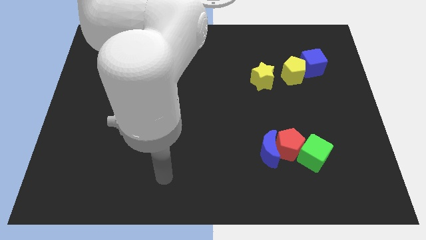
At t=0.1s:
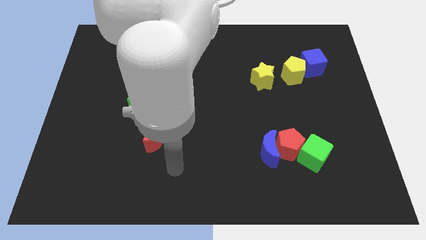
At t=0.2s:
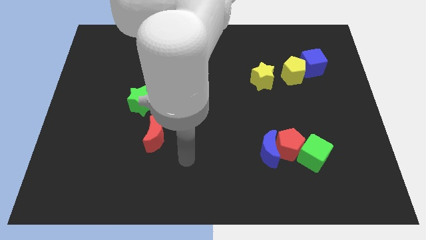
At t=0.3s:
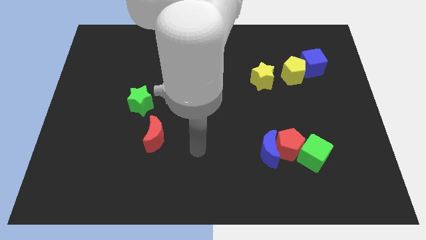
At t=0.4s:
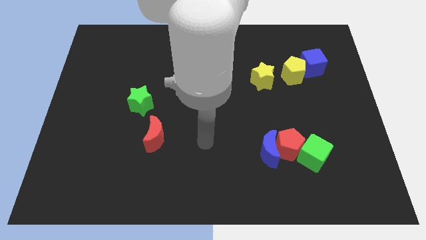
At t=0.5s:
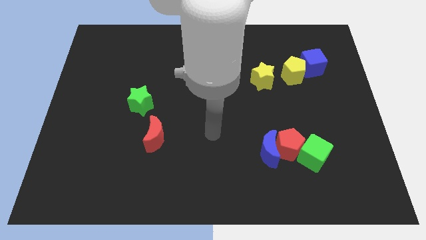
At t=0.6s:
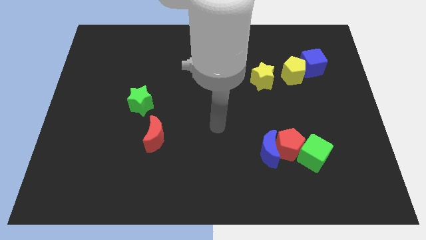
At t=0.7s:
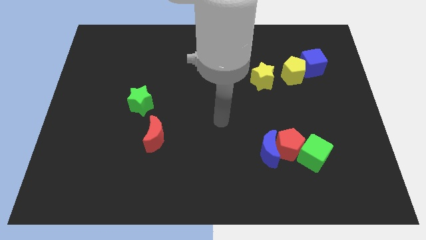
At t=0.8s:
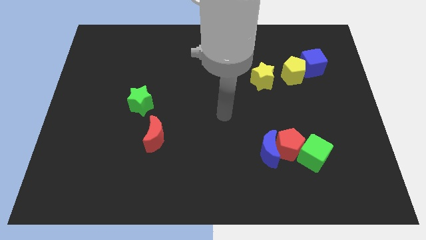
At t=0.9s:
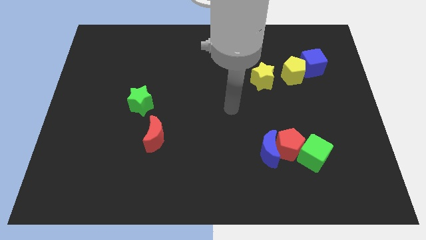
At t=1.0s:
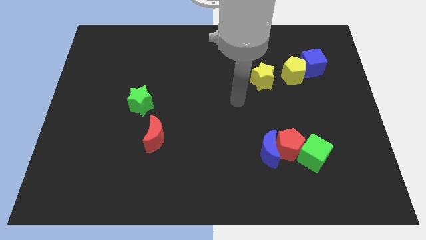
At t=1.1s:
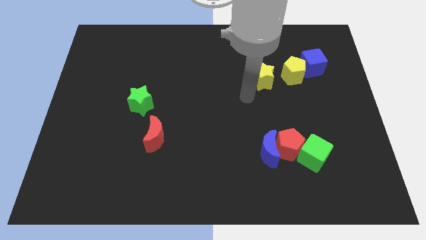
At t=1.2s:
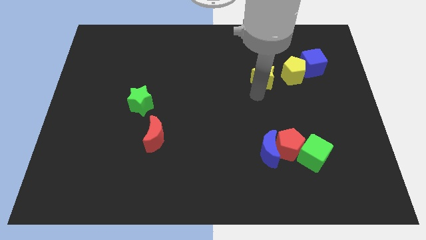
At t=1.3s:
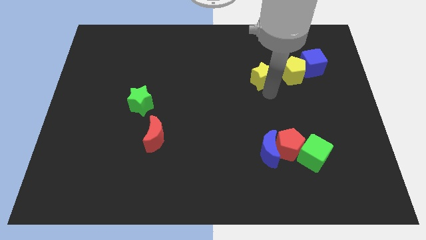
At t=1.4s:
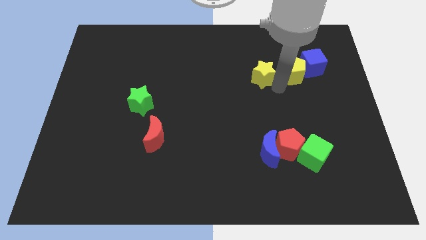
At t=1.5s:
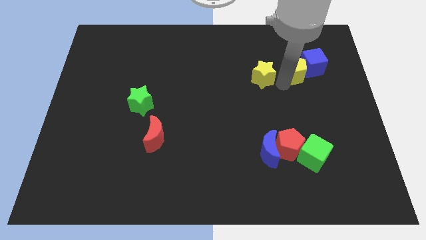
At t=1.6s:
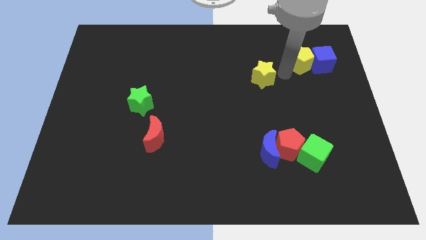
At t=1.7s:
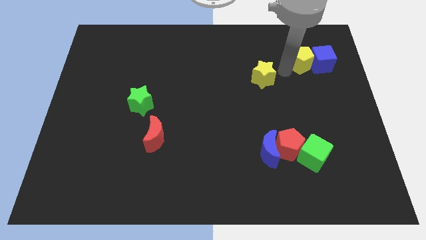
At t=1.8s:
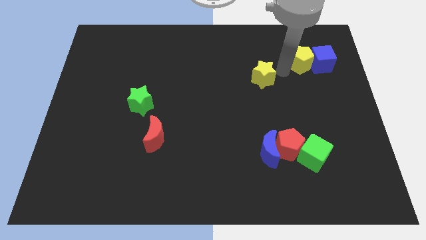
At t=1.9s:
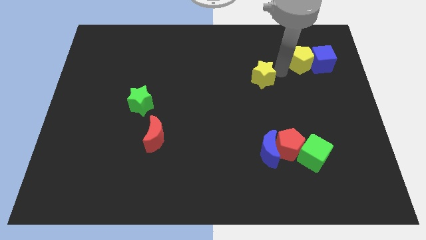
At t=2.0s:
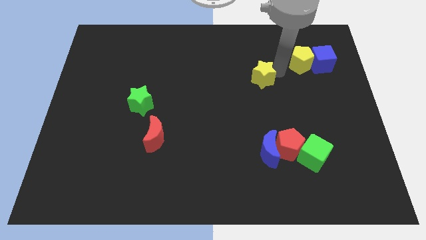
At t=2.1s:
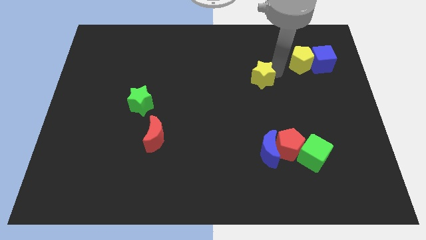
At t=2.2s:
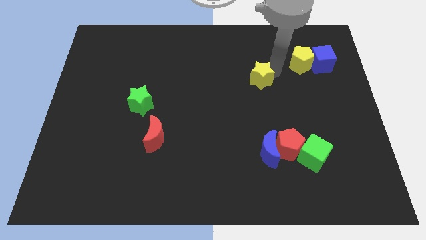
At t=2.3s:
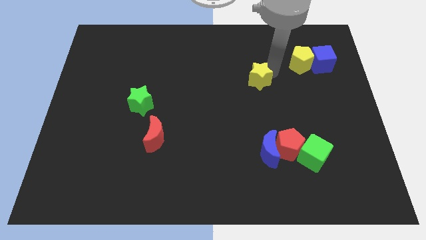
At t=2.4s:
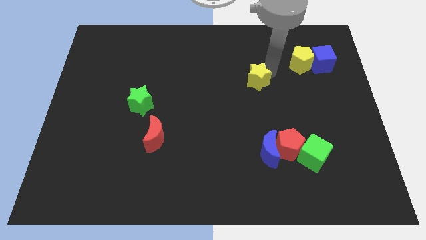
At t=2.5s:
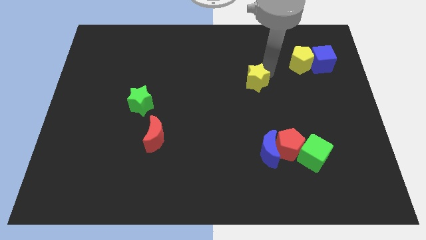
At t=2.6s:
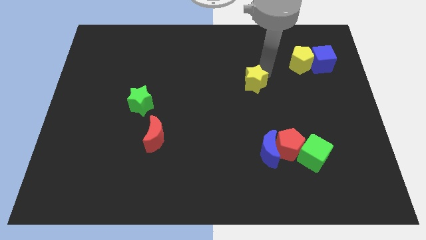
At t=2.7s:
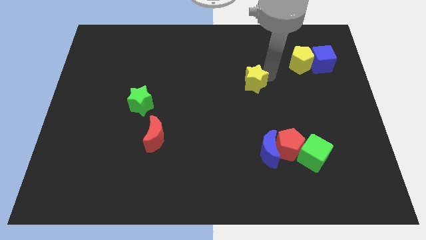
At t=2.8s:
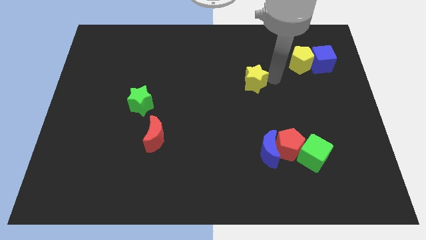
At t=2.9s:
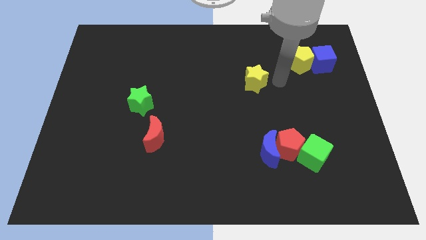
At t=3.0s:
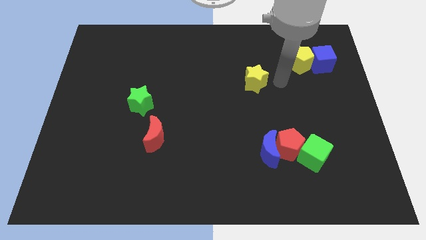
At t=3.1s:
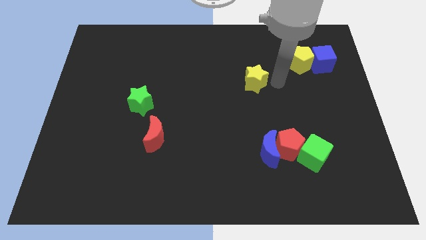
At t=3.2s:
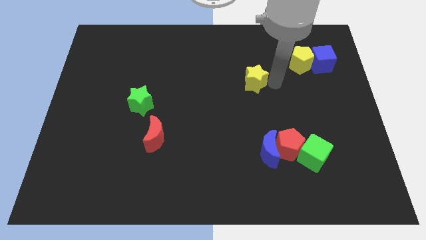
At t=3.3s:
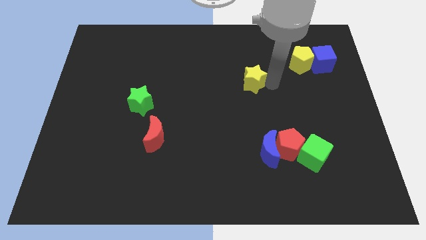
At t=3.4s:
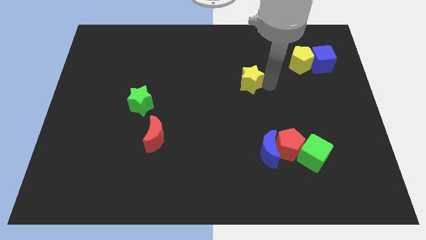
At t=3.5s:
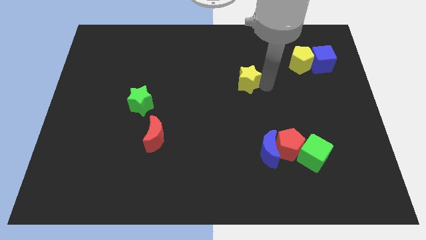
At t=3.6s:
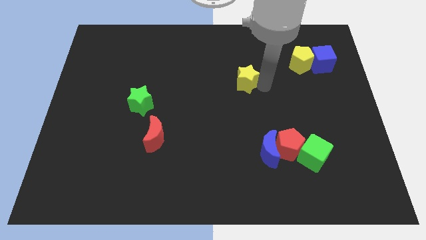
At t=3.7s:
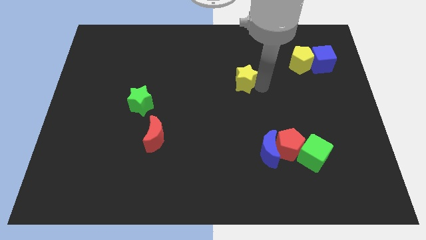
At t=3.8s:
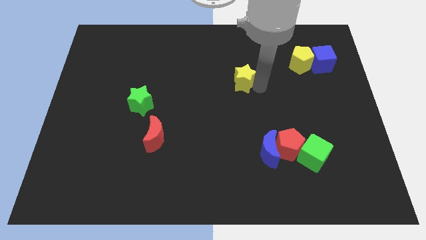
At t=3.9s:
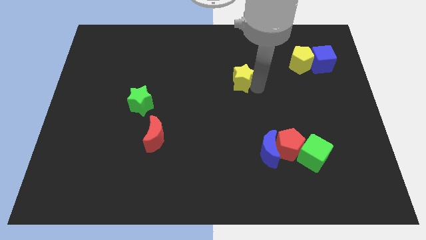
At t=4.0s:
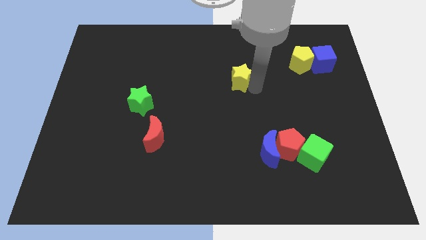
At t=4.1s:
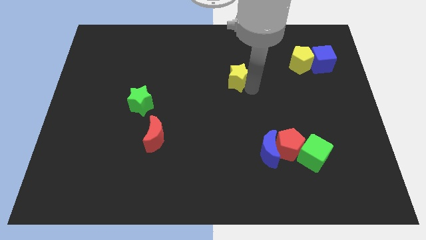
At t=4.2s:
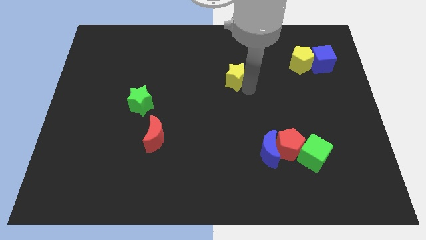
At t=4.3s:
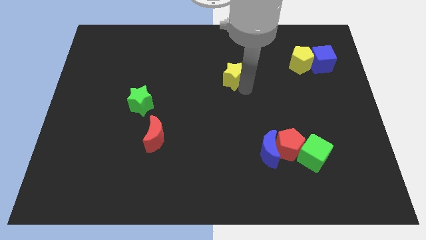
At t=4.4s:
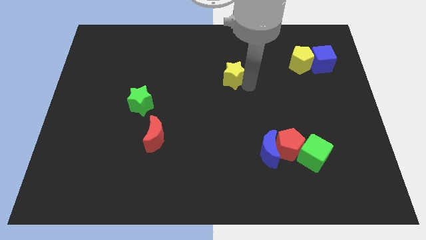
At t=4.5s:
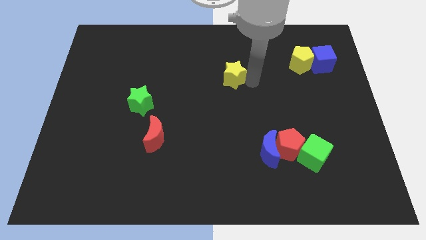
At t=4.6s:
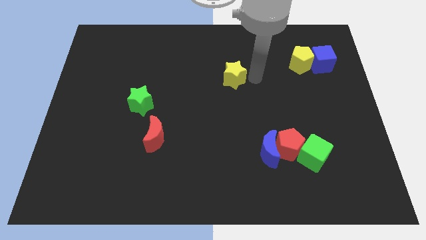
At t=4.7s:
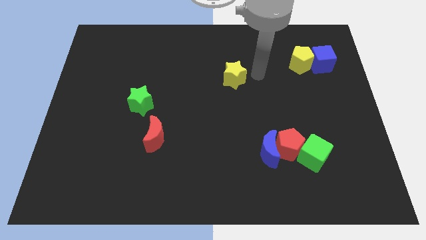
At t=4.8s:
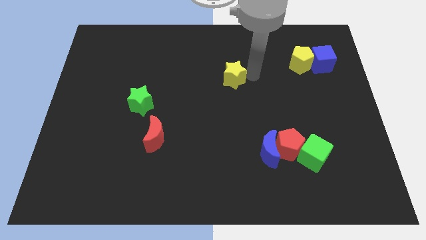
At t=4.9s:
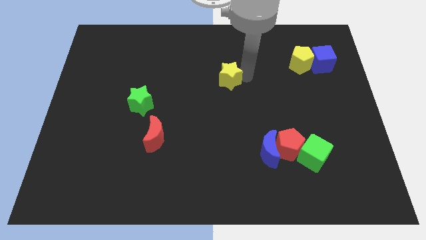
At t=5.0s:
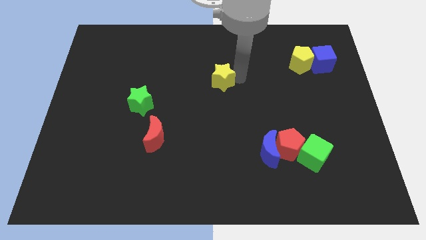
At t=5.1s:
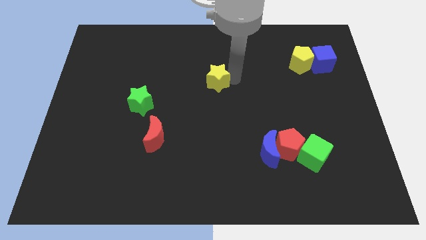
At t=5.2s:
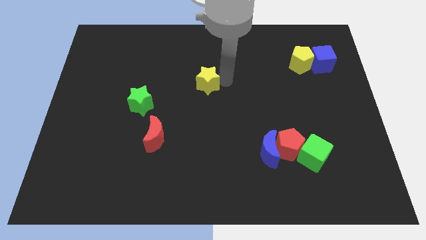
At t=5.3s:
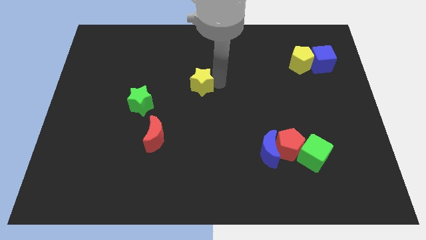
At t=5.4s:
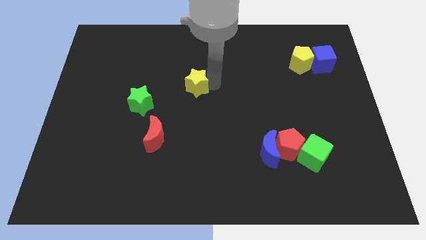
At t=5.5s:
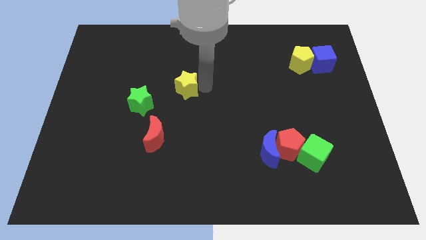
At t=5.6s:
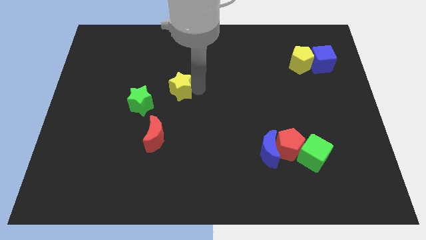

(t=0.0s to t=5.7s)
slide the yellow star to the left

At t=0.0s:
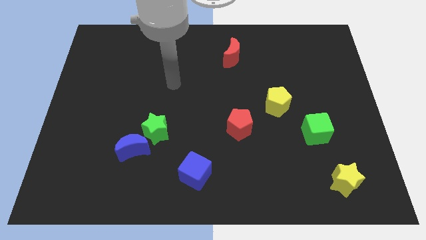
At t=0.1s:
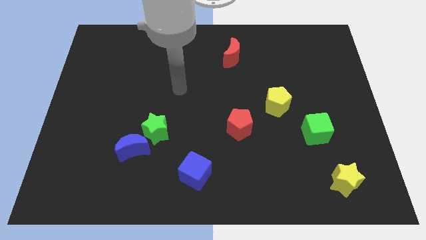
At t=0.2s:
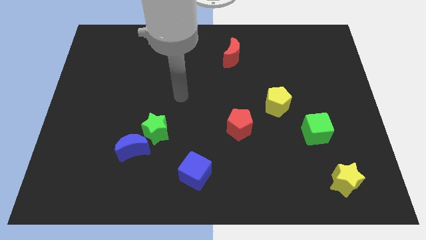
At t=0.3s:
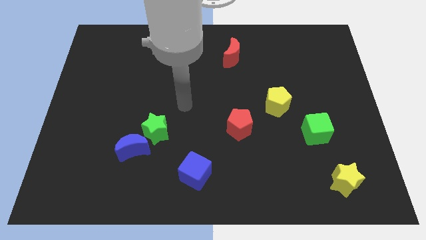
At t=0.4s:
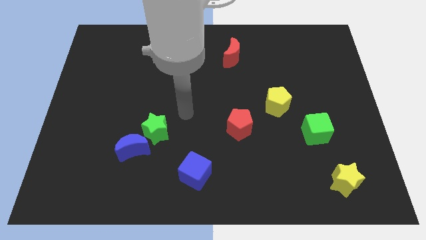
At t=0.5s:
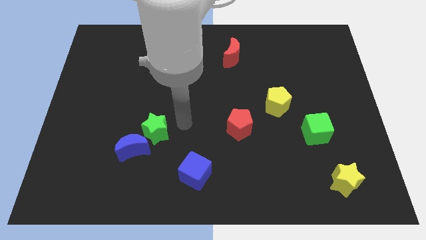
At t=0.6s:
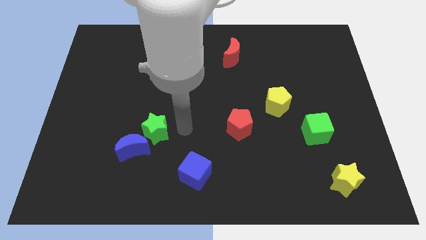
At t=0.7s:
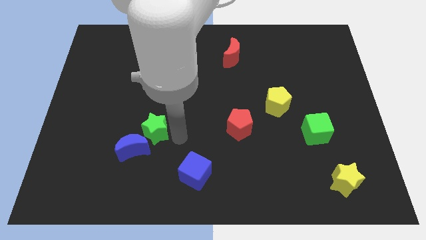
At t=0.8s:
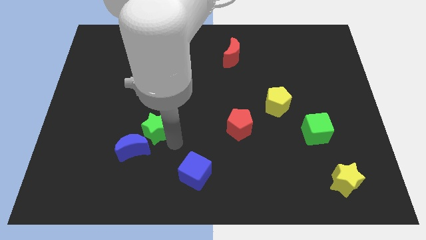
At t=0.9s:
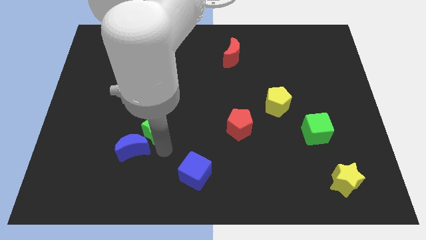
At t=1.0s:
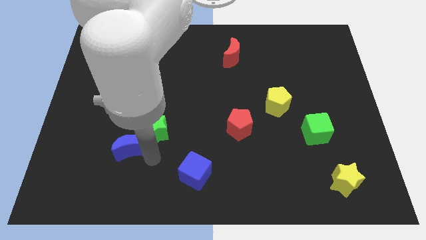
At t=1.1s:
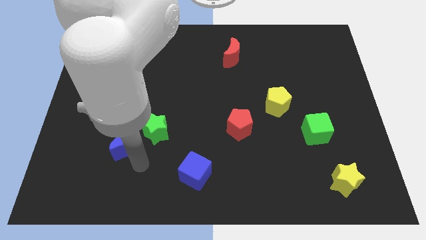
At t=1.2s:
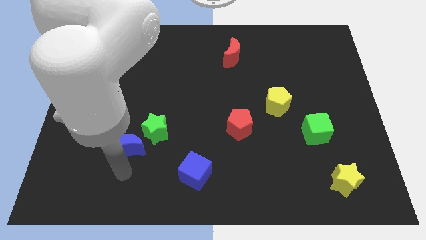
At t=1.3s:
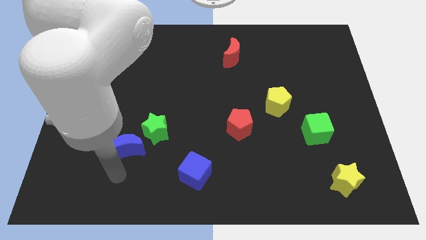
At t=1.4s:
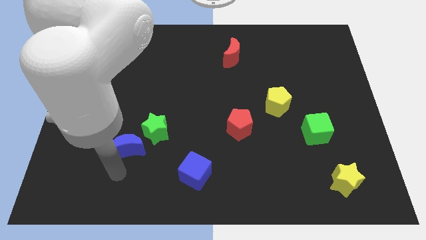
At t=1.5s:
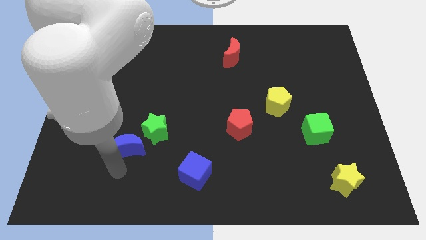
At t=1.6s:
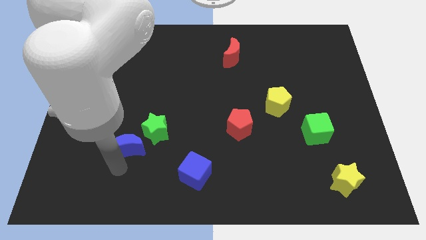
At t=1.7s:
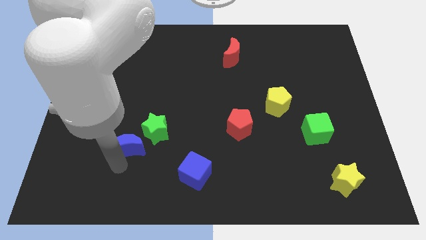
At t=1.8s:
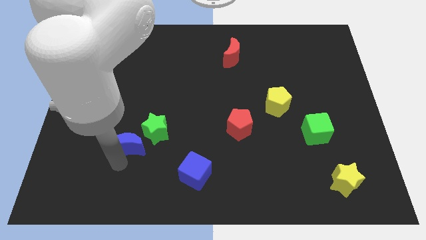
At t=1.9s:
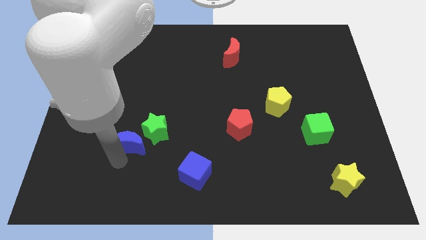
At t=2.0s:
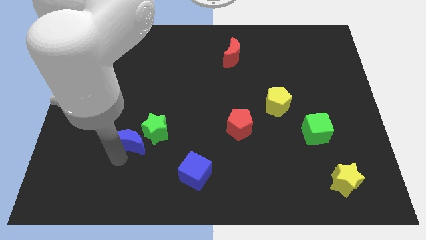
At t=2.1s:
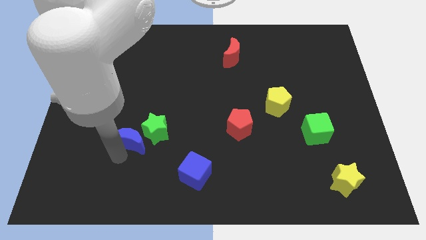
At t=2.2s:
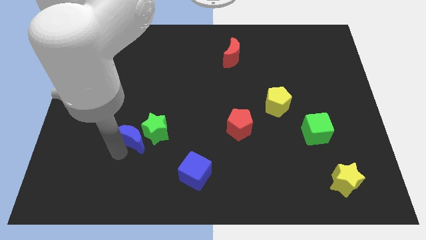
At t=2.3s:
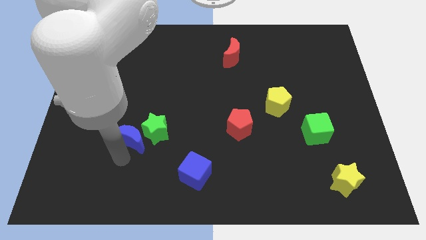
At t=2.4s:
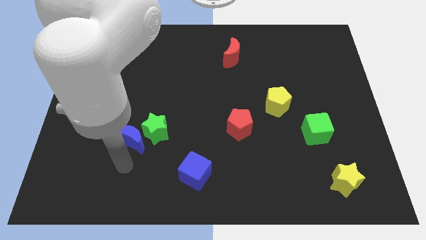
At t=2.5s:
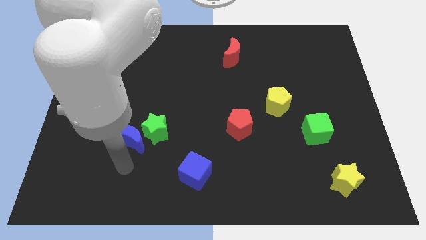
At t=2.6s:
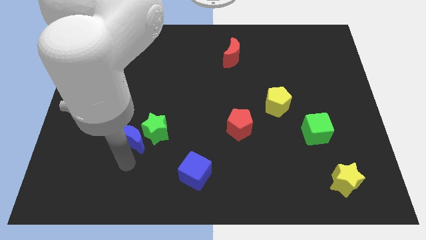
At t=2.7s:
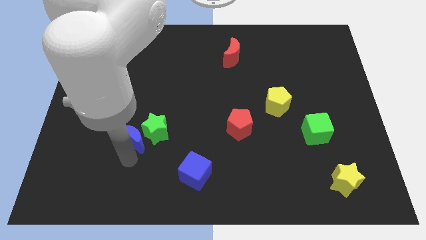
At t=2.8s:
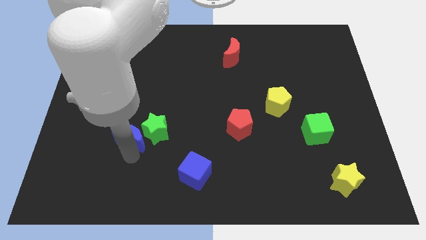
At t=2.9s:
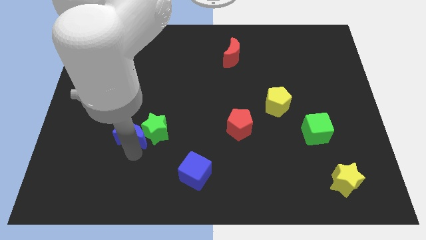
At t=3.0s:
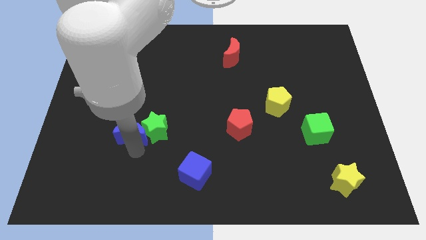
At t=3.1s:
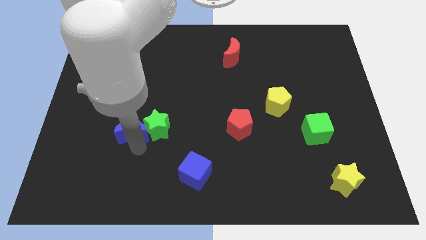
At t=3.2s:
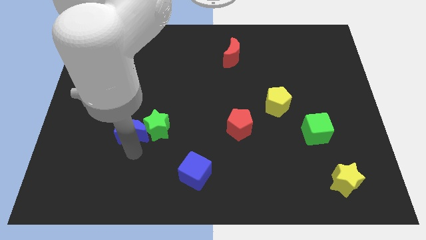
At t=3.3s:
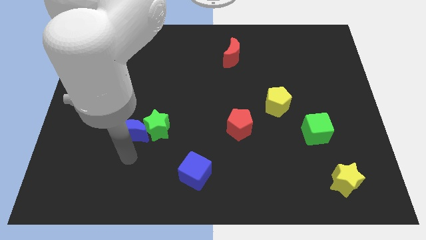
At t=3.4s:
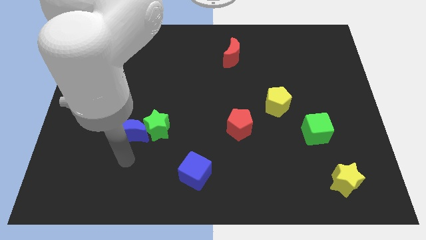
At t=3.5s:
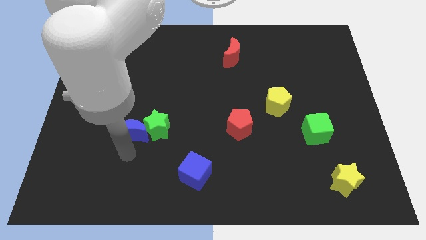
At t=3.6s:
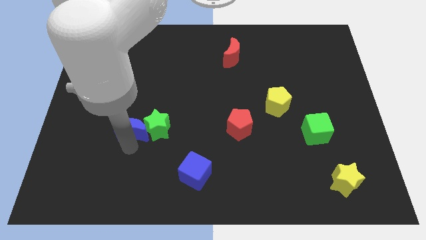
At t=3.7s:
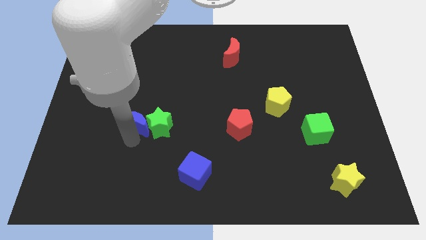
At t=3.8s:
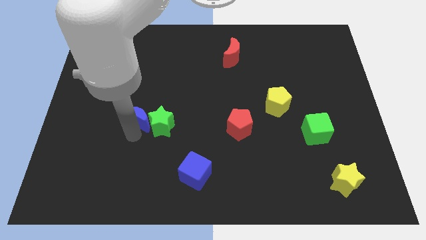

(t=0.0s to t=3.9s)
push the blue moon a little bit up
